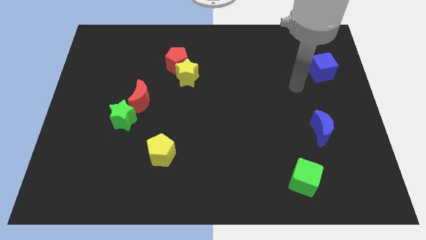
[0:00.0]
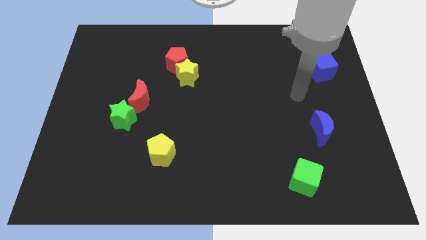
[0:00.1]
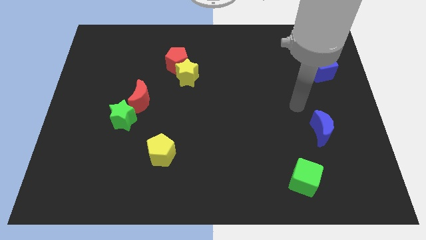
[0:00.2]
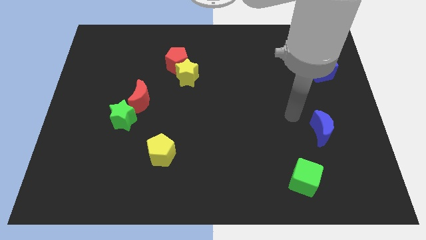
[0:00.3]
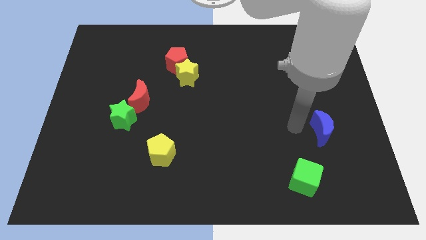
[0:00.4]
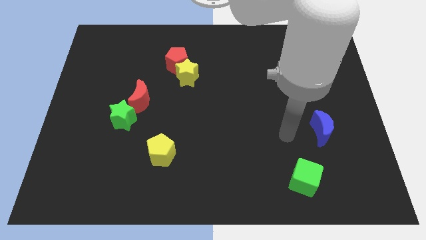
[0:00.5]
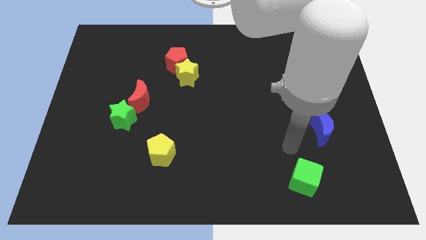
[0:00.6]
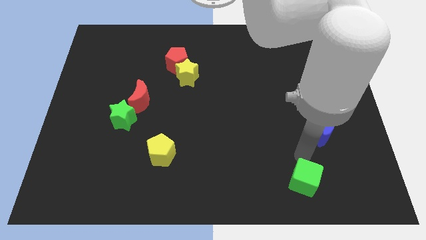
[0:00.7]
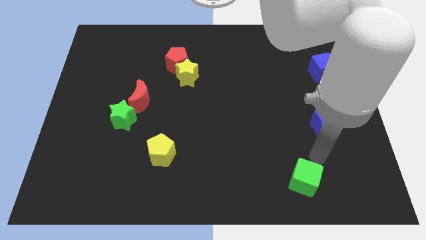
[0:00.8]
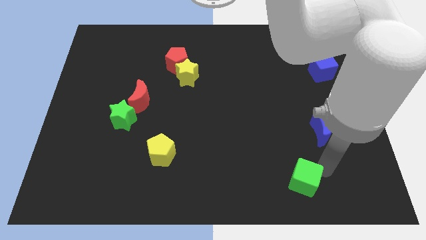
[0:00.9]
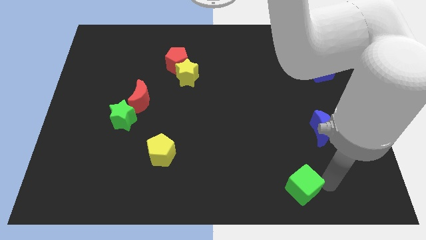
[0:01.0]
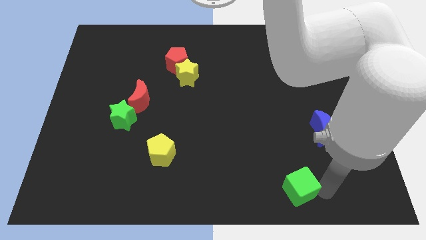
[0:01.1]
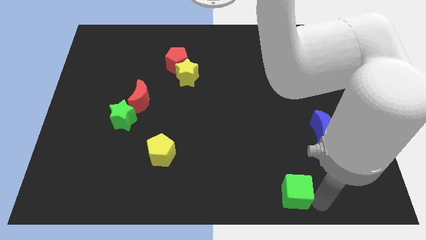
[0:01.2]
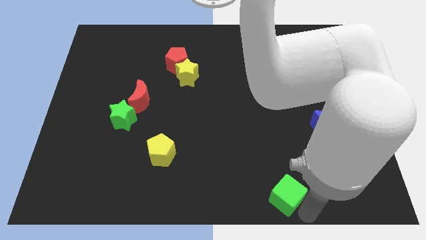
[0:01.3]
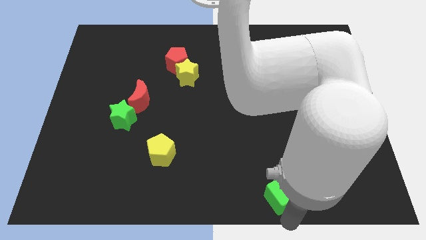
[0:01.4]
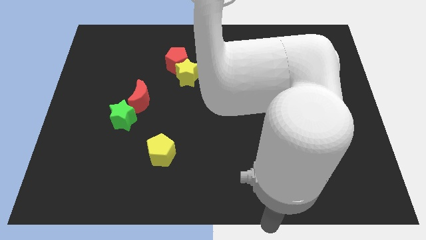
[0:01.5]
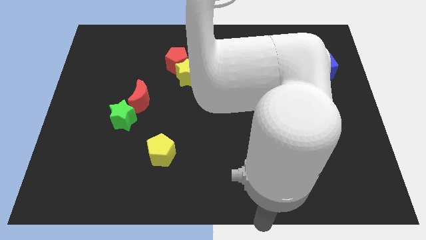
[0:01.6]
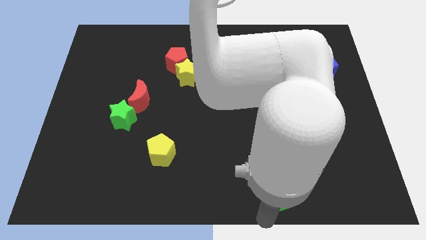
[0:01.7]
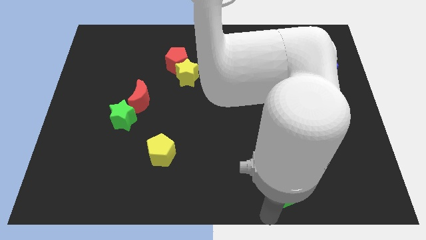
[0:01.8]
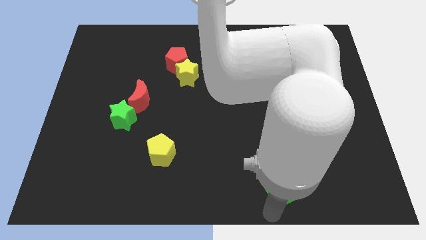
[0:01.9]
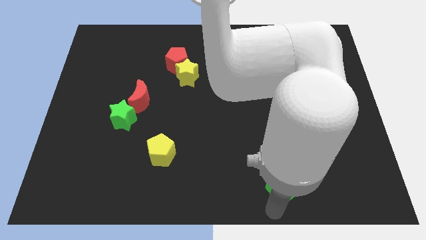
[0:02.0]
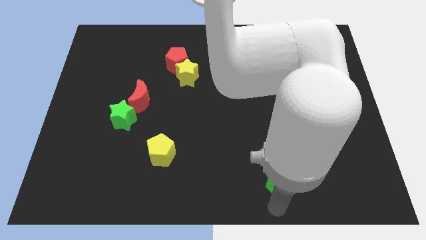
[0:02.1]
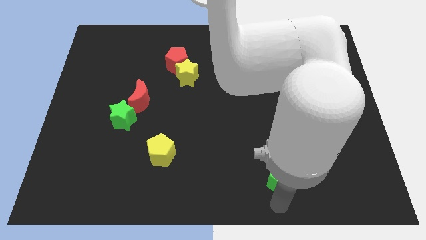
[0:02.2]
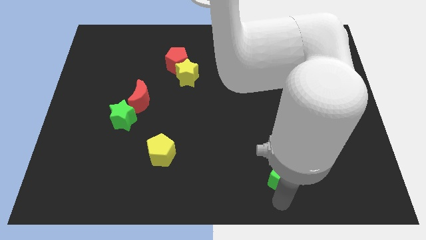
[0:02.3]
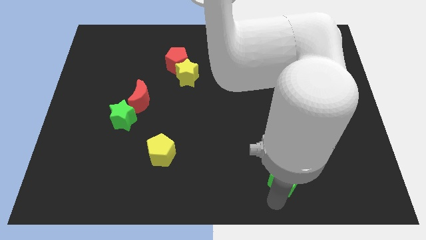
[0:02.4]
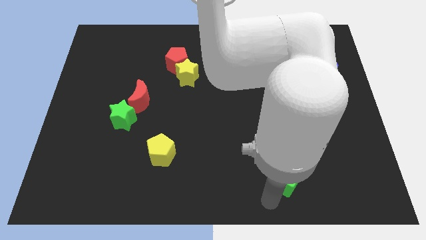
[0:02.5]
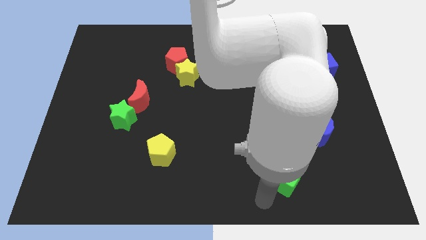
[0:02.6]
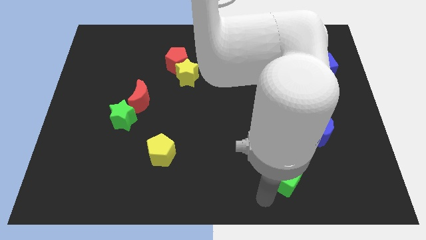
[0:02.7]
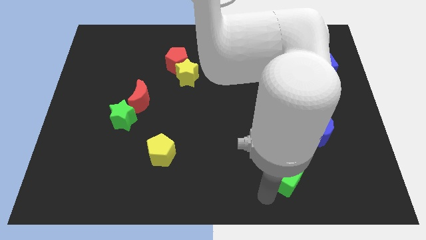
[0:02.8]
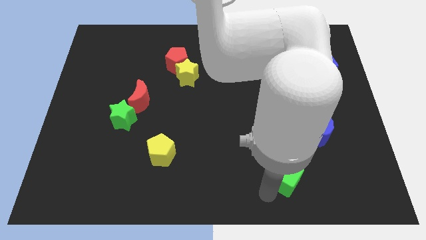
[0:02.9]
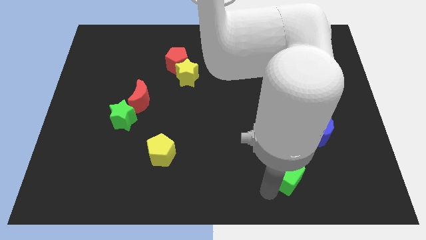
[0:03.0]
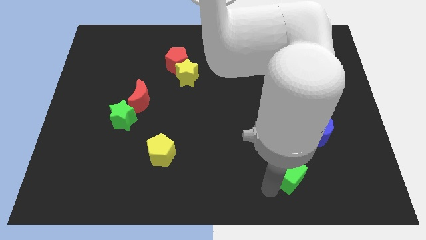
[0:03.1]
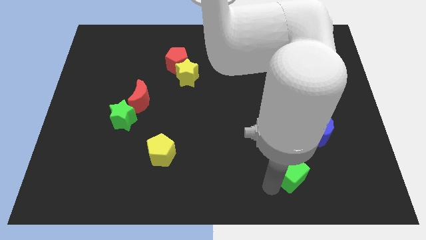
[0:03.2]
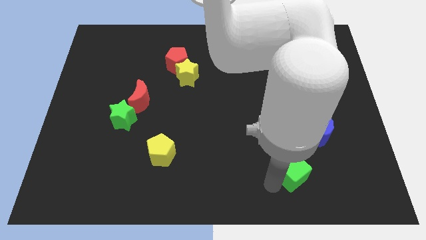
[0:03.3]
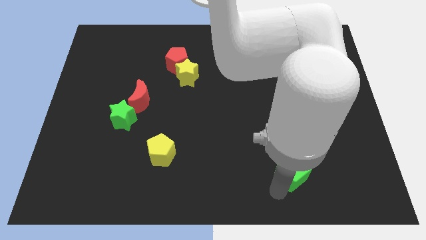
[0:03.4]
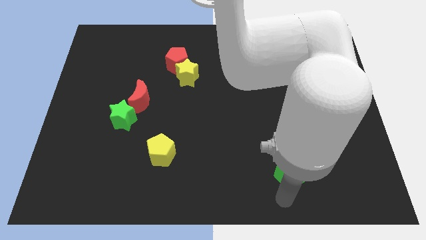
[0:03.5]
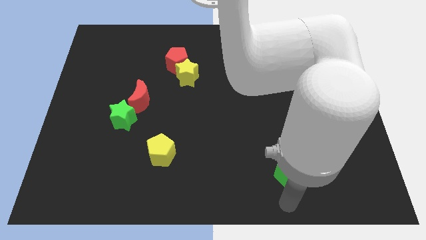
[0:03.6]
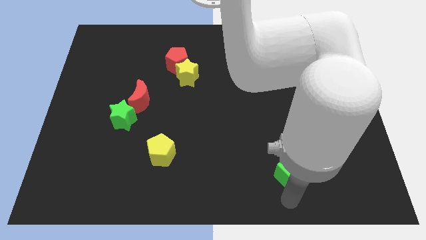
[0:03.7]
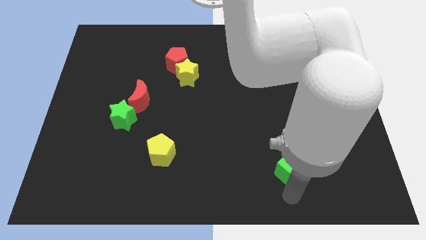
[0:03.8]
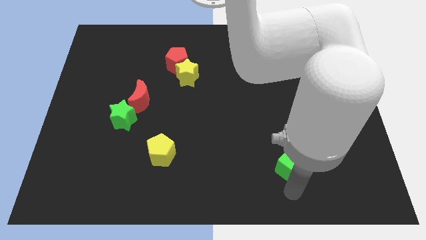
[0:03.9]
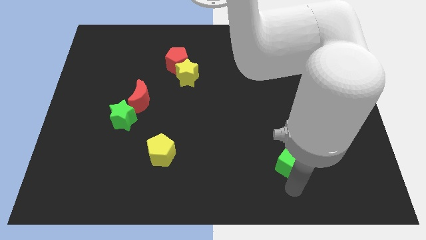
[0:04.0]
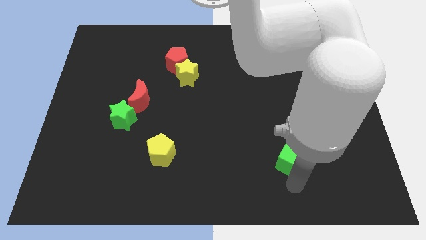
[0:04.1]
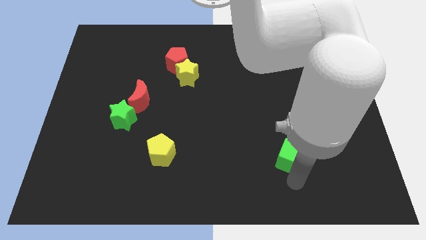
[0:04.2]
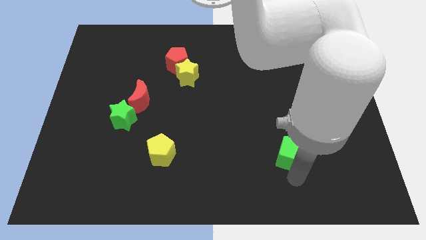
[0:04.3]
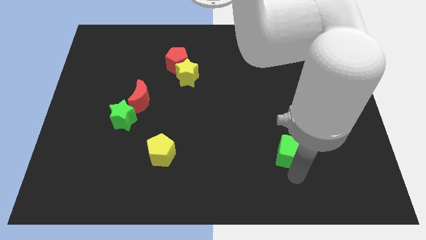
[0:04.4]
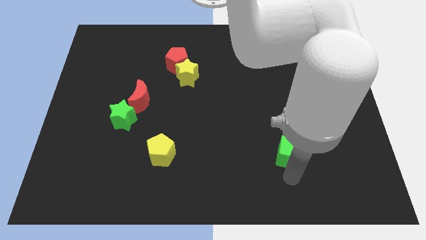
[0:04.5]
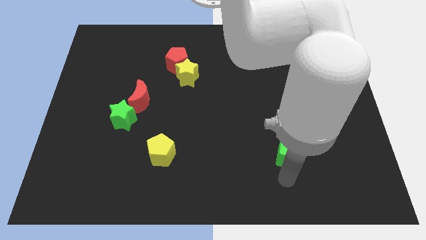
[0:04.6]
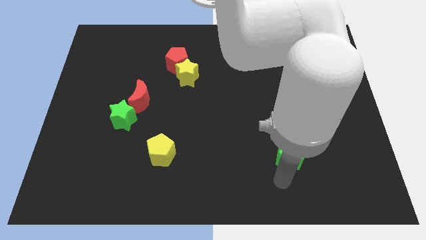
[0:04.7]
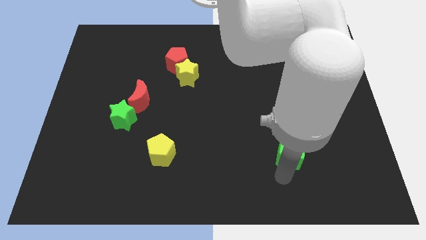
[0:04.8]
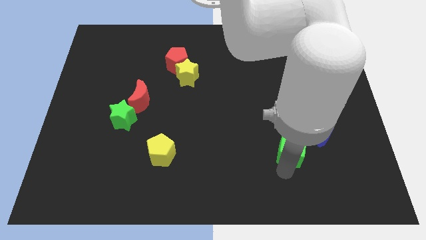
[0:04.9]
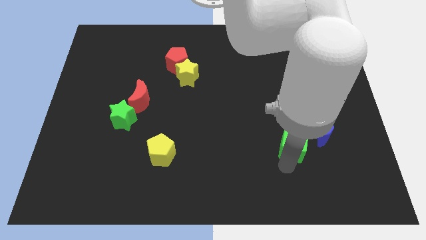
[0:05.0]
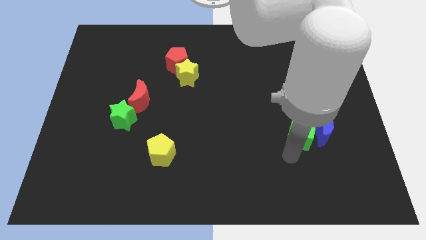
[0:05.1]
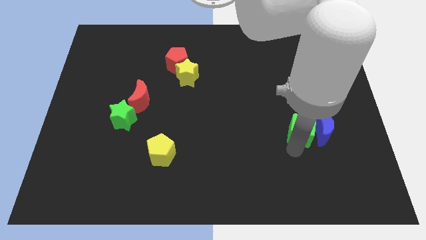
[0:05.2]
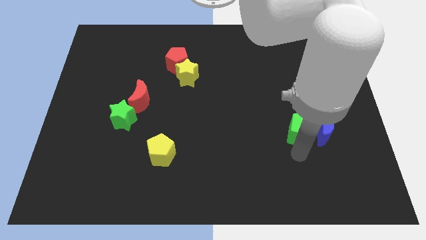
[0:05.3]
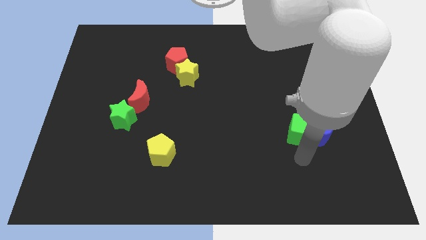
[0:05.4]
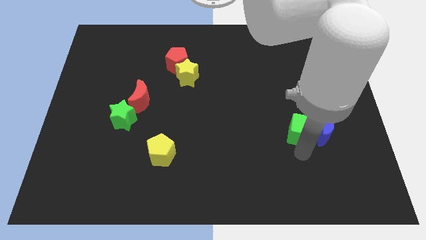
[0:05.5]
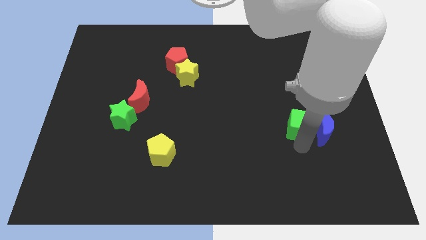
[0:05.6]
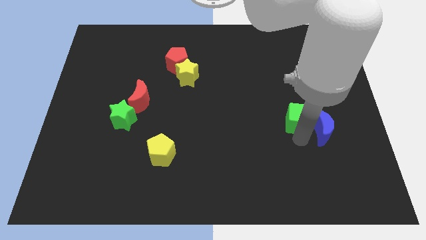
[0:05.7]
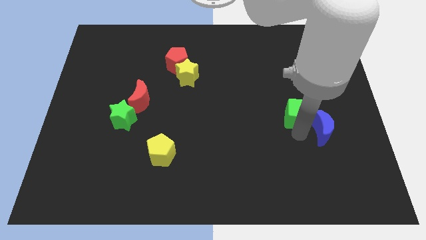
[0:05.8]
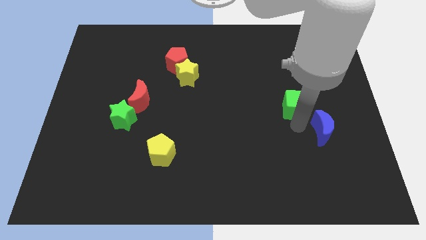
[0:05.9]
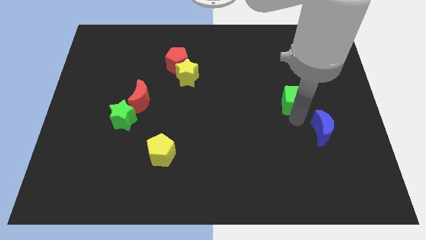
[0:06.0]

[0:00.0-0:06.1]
slide the green cube upwards

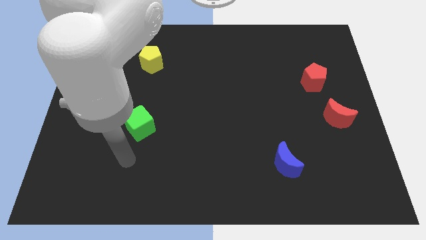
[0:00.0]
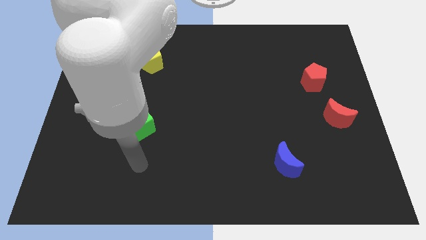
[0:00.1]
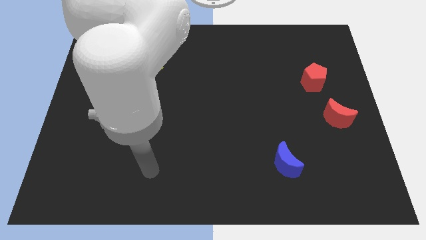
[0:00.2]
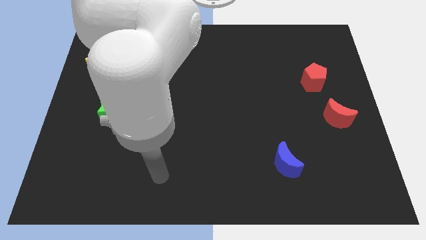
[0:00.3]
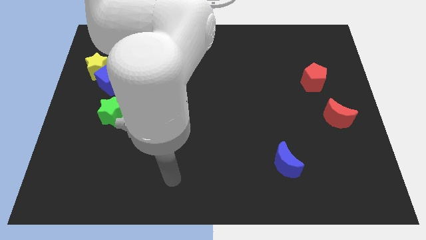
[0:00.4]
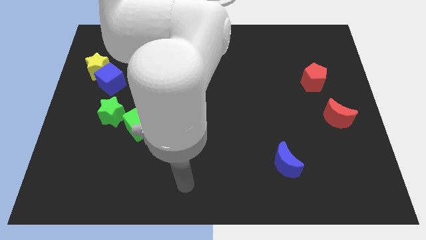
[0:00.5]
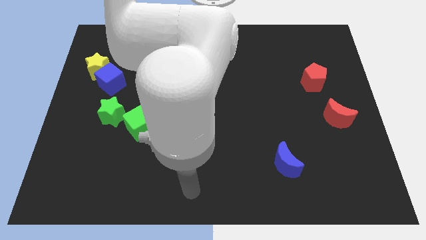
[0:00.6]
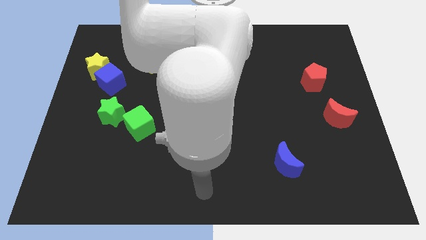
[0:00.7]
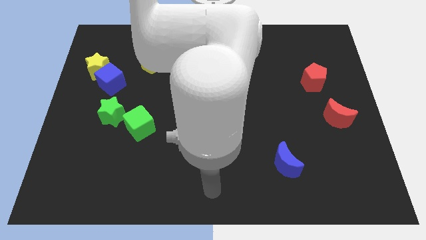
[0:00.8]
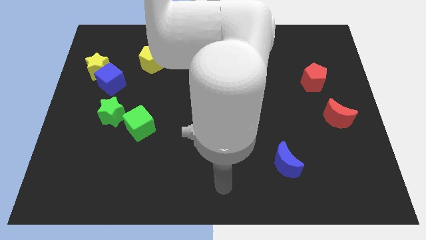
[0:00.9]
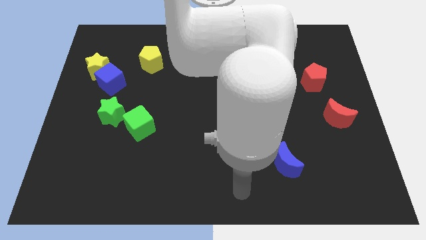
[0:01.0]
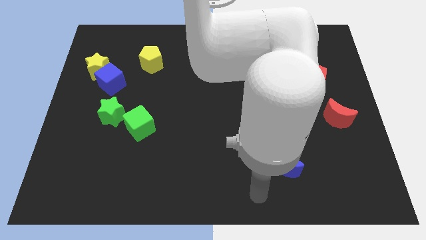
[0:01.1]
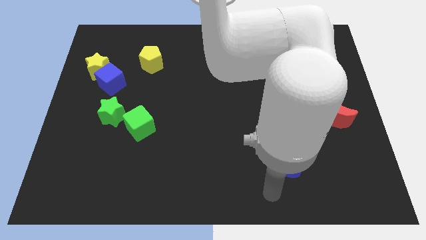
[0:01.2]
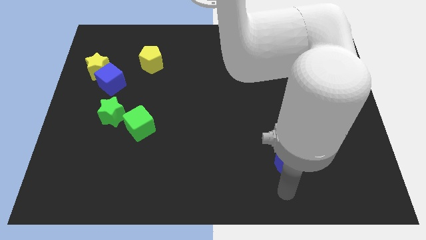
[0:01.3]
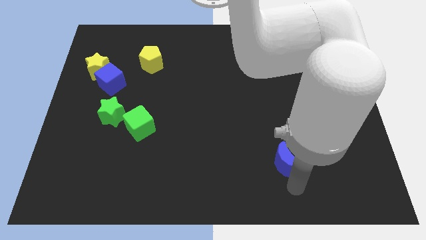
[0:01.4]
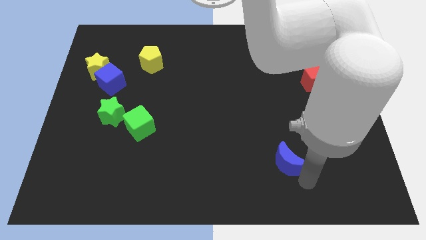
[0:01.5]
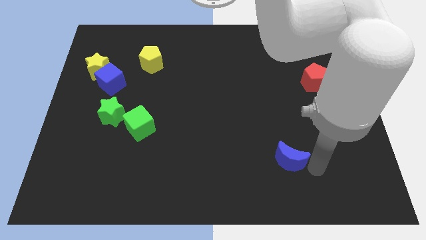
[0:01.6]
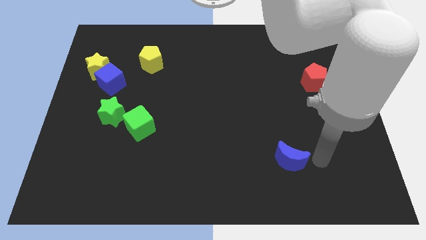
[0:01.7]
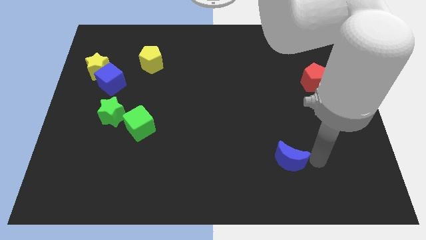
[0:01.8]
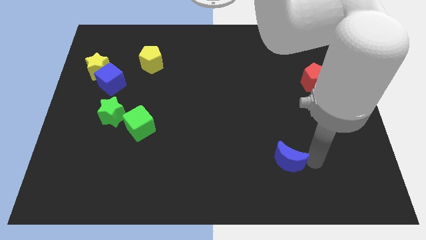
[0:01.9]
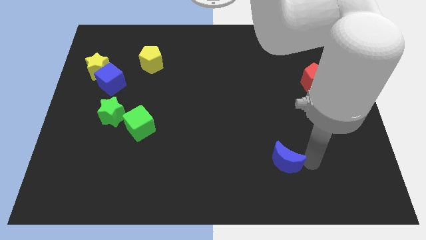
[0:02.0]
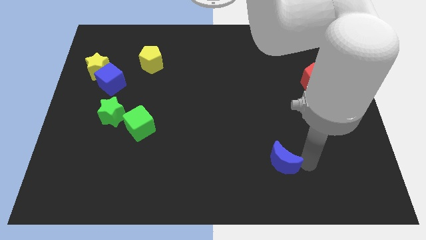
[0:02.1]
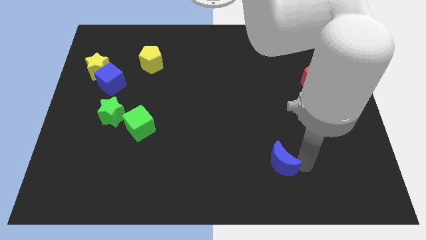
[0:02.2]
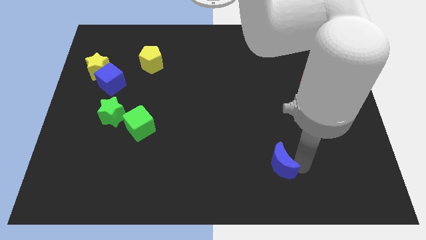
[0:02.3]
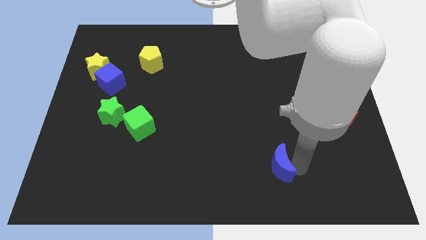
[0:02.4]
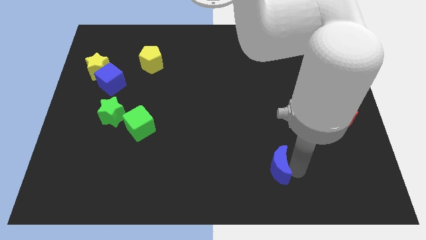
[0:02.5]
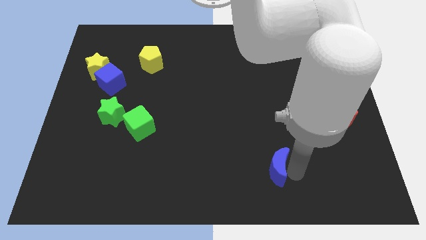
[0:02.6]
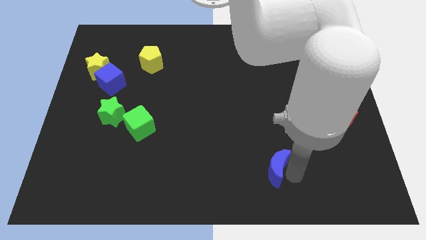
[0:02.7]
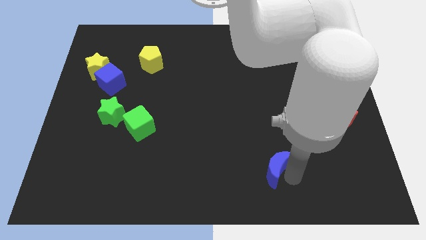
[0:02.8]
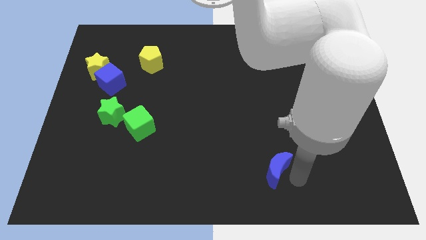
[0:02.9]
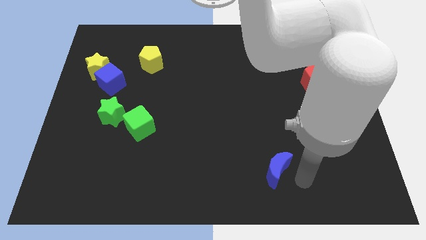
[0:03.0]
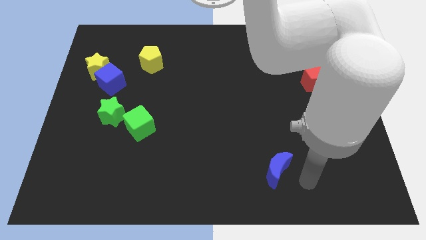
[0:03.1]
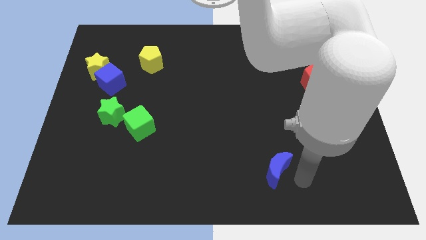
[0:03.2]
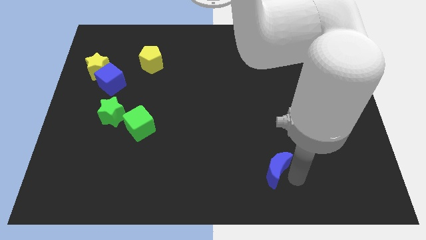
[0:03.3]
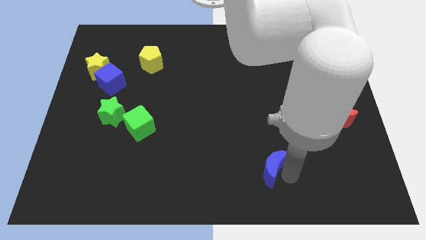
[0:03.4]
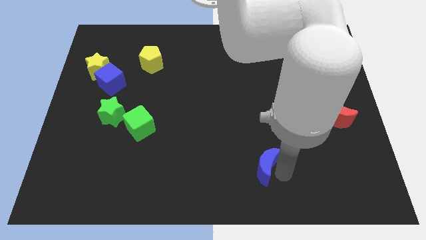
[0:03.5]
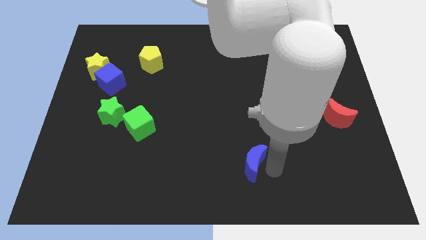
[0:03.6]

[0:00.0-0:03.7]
slide the blue moon a little left
